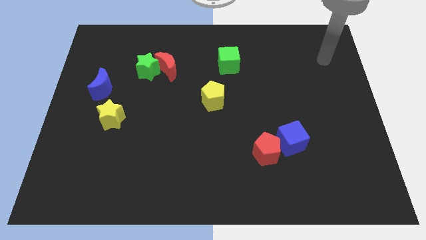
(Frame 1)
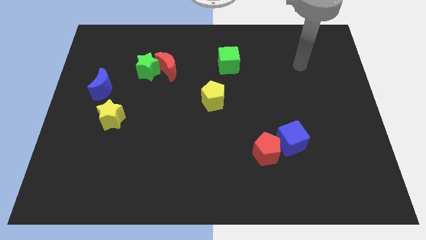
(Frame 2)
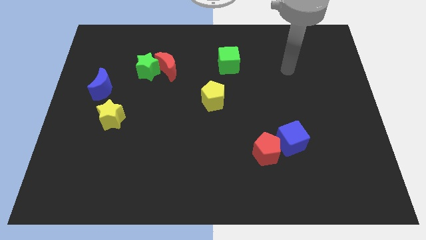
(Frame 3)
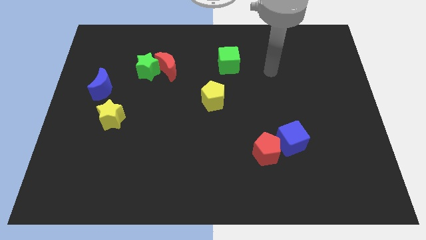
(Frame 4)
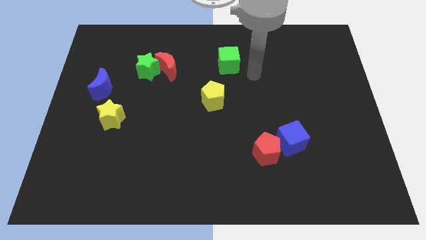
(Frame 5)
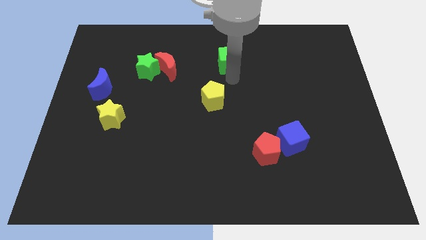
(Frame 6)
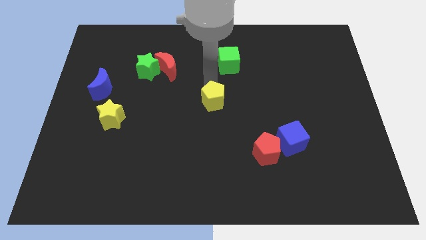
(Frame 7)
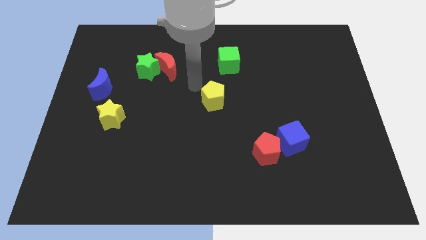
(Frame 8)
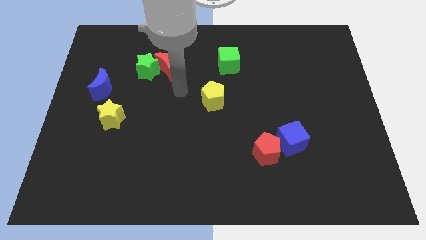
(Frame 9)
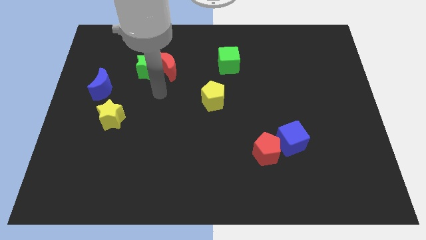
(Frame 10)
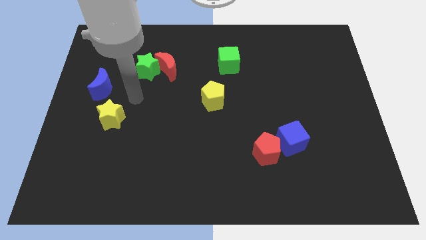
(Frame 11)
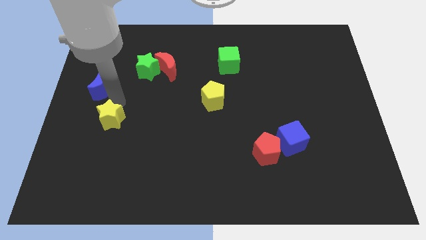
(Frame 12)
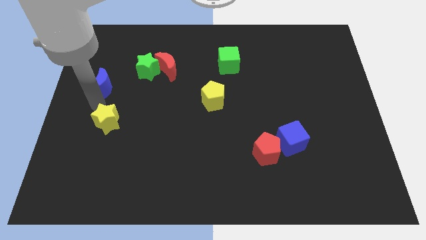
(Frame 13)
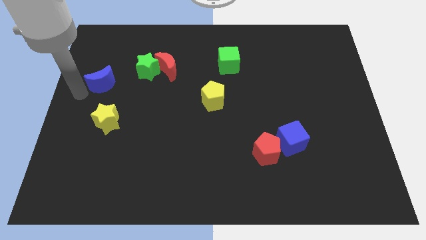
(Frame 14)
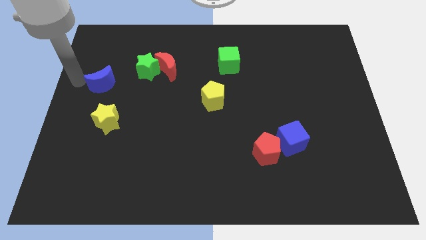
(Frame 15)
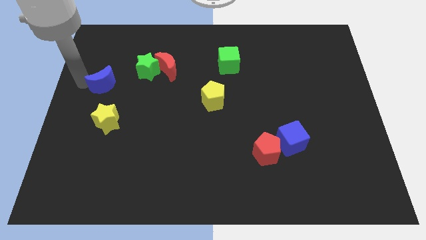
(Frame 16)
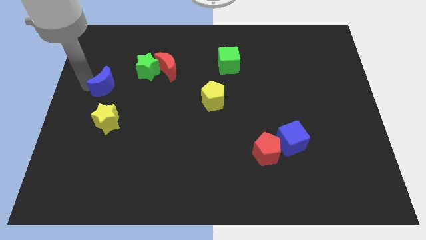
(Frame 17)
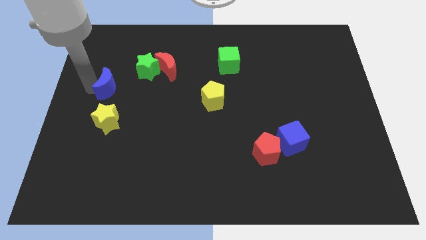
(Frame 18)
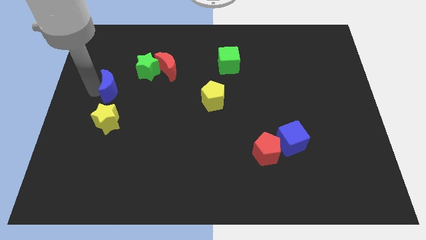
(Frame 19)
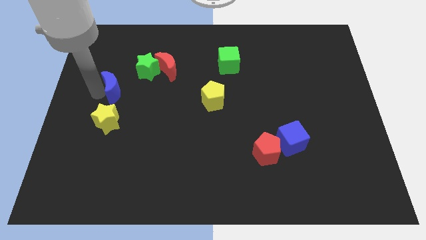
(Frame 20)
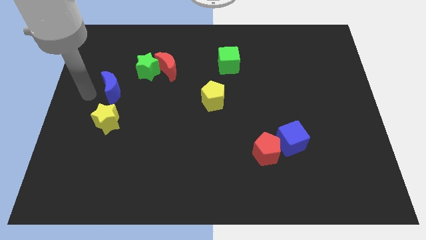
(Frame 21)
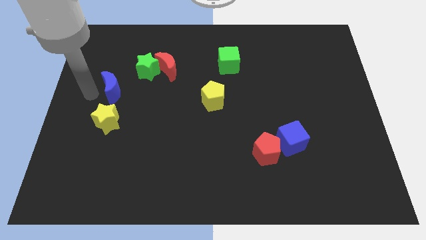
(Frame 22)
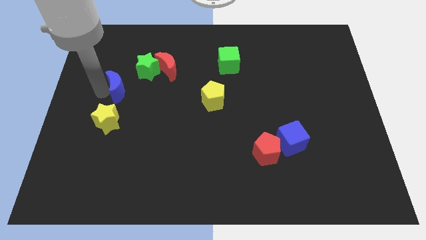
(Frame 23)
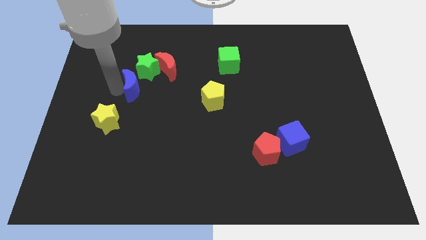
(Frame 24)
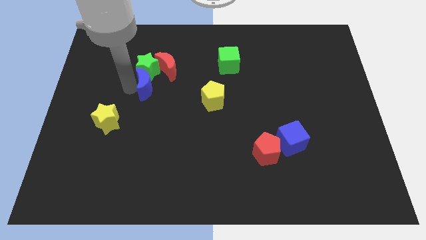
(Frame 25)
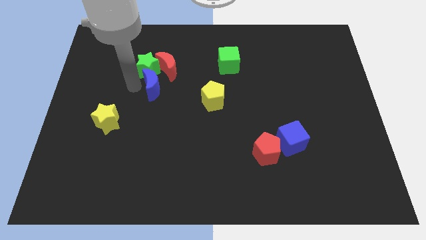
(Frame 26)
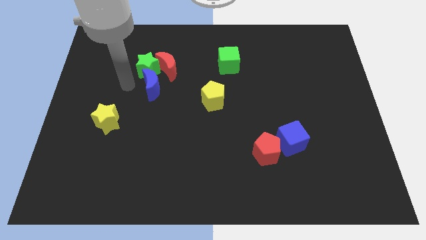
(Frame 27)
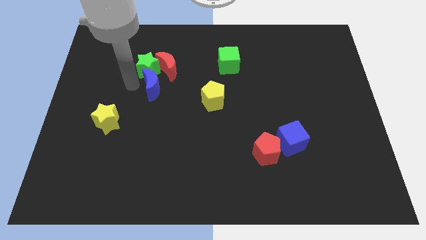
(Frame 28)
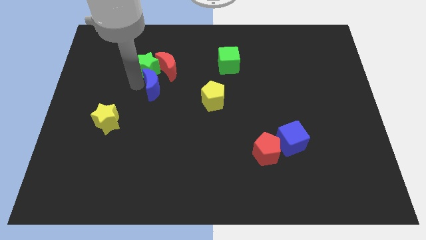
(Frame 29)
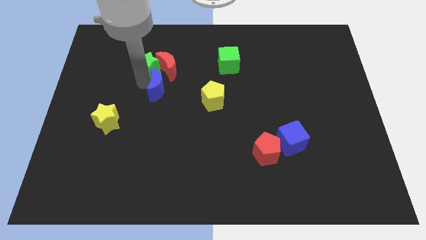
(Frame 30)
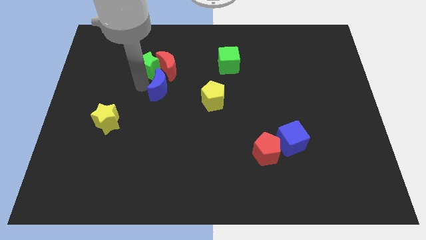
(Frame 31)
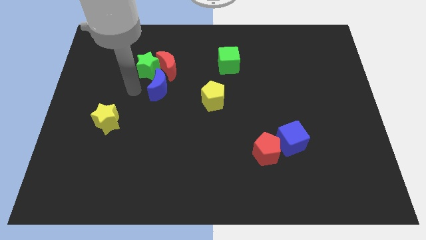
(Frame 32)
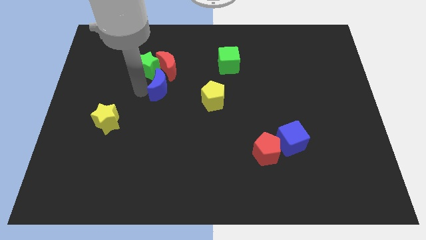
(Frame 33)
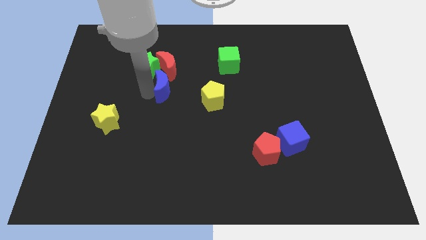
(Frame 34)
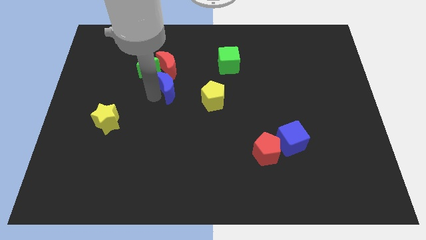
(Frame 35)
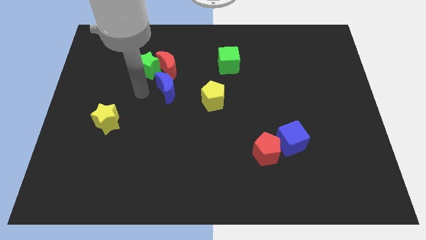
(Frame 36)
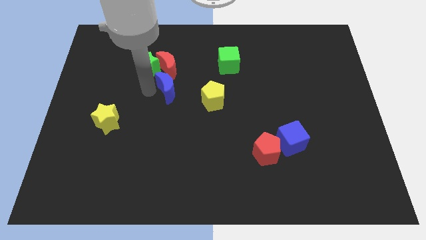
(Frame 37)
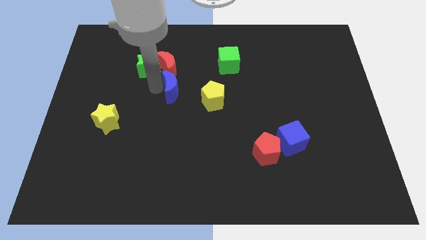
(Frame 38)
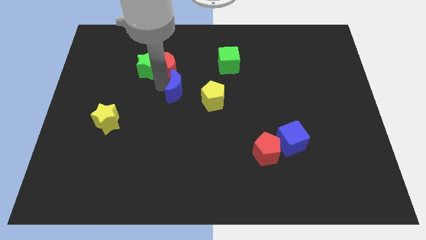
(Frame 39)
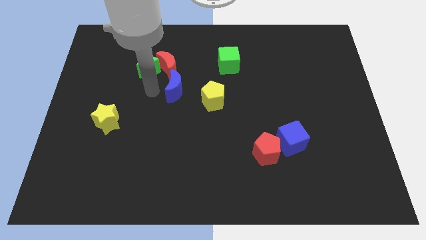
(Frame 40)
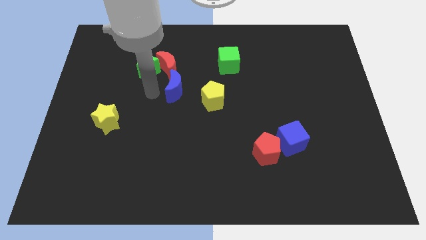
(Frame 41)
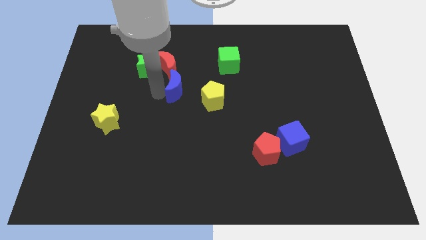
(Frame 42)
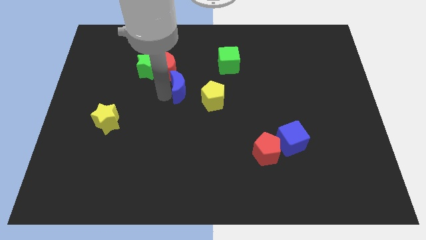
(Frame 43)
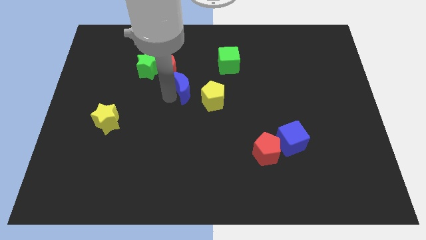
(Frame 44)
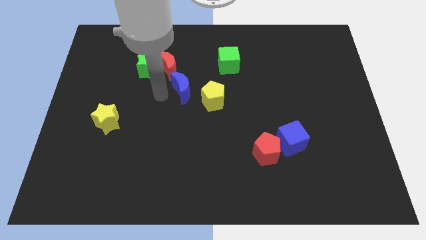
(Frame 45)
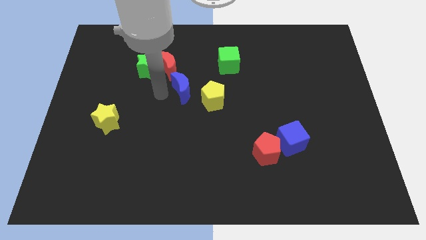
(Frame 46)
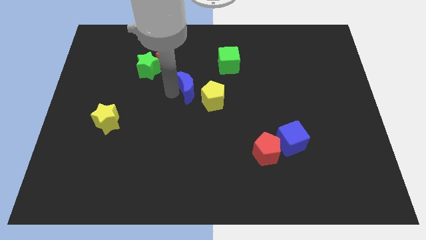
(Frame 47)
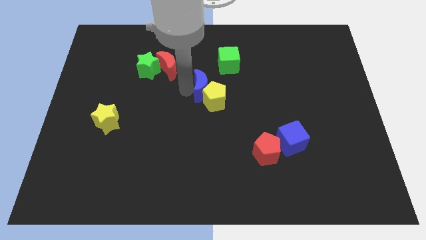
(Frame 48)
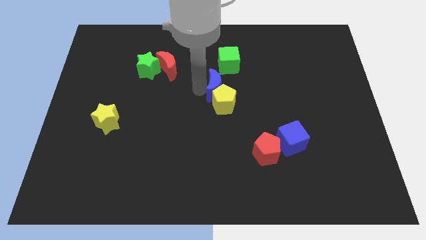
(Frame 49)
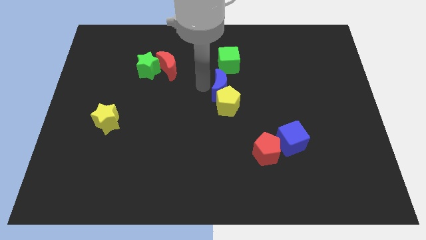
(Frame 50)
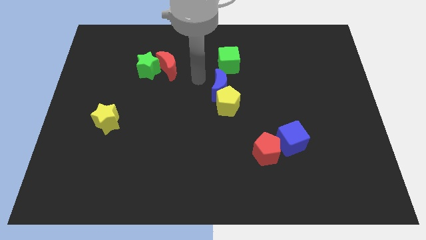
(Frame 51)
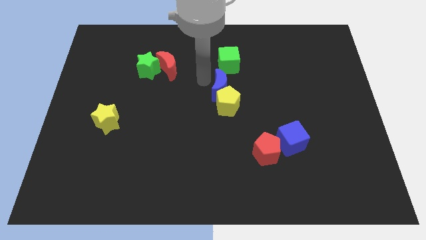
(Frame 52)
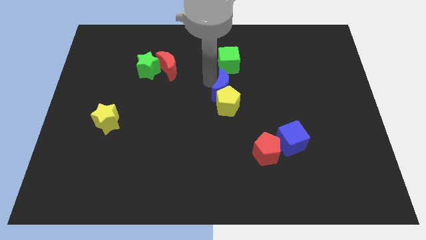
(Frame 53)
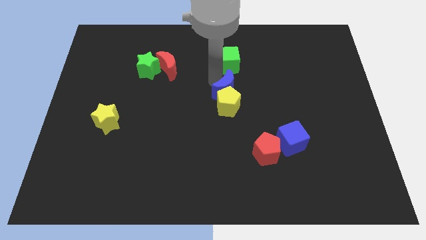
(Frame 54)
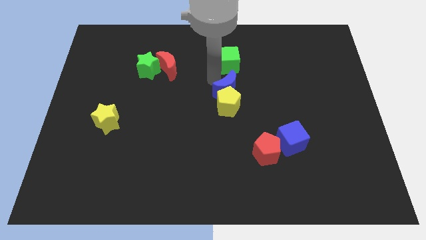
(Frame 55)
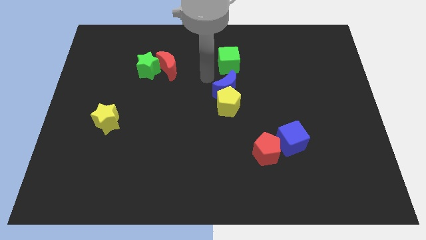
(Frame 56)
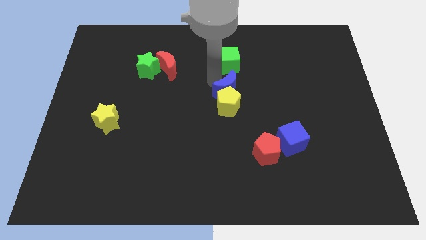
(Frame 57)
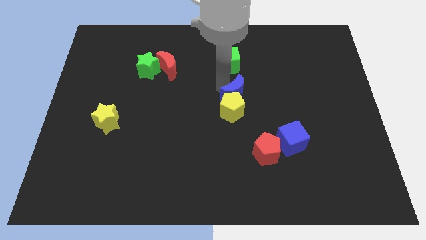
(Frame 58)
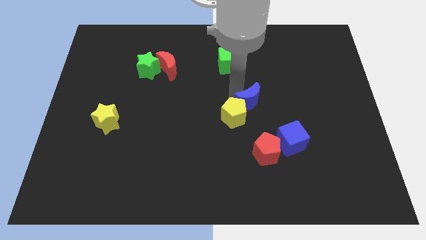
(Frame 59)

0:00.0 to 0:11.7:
put the blue moon above the red pentagon

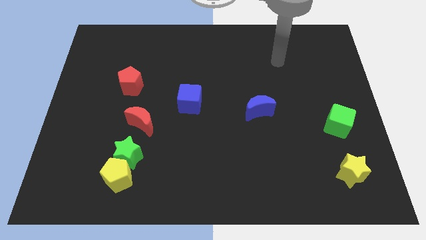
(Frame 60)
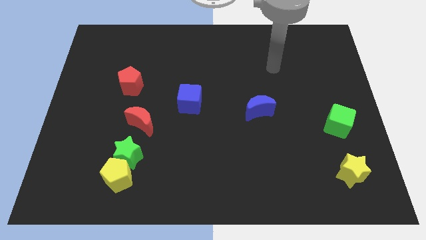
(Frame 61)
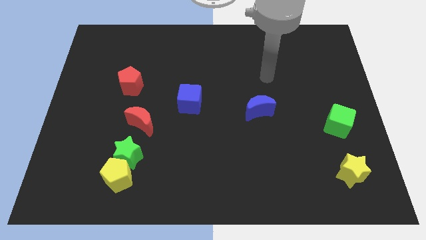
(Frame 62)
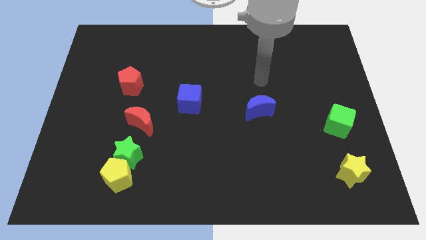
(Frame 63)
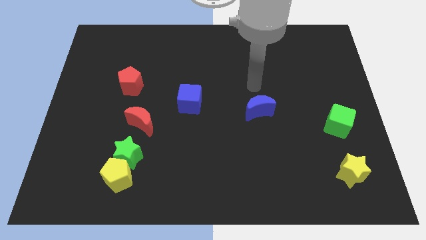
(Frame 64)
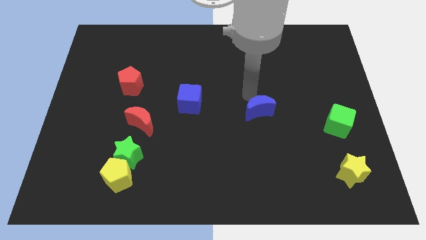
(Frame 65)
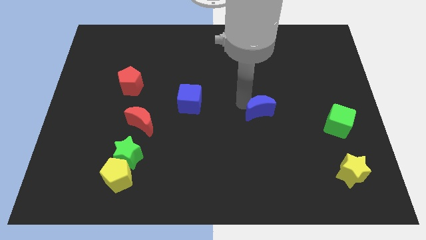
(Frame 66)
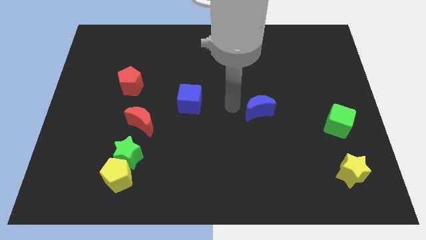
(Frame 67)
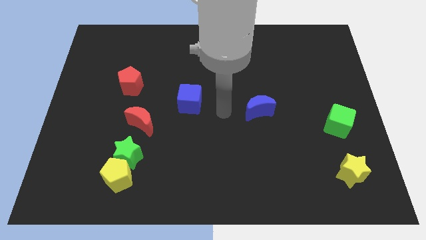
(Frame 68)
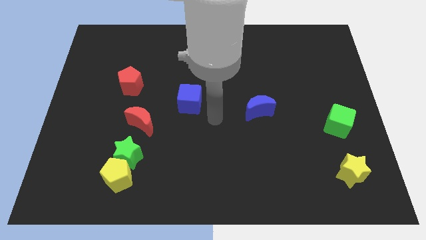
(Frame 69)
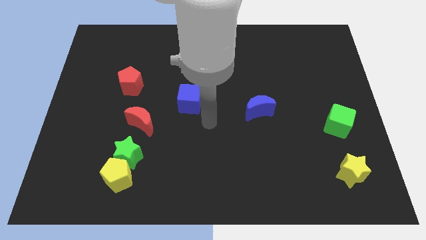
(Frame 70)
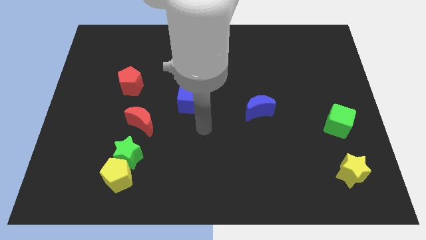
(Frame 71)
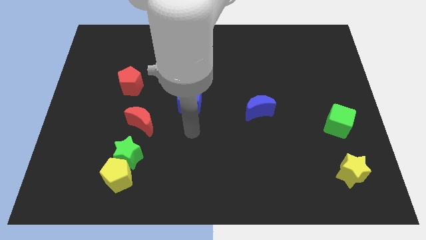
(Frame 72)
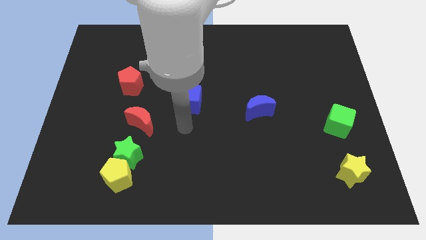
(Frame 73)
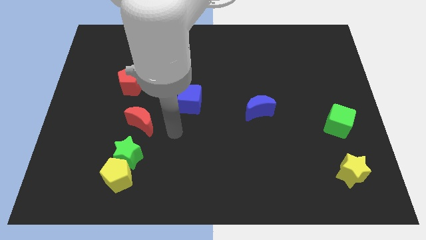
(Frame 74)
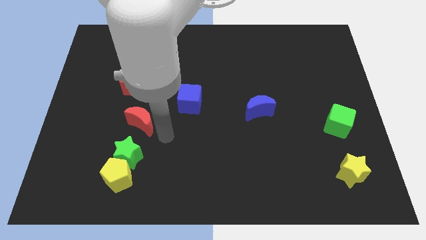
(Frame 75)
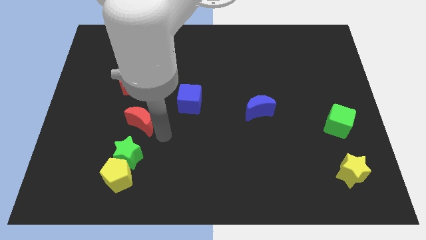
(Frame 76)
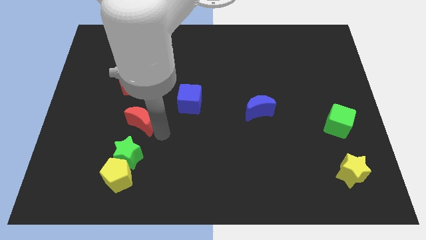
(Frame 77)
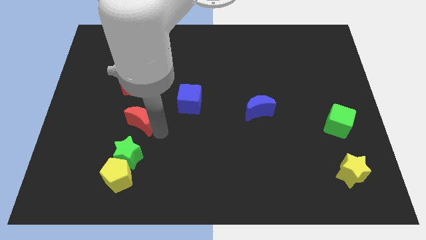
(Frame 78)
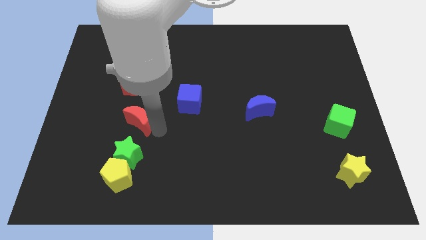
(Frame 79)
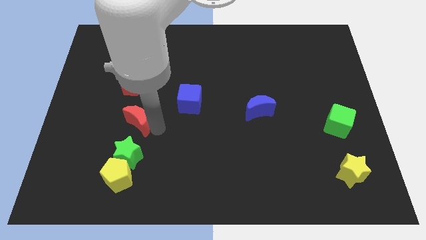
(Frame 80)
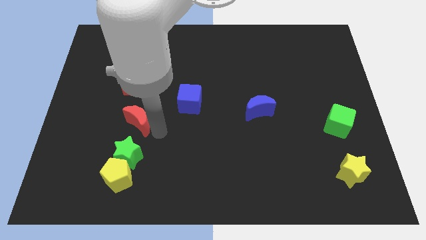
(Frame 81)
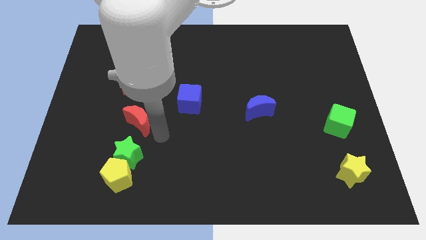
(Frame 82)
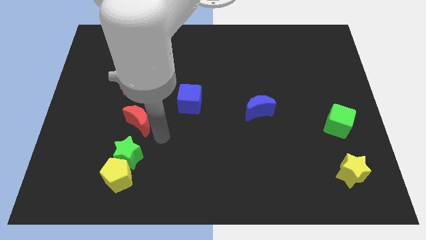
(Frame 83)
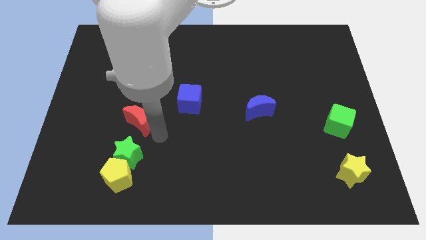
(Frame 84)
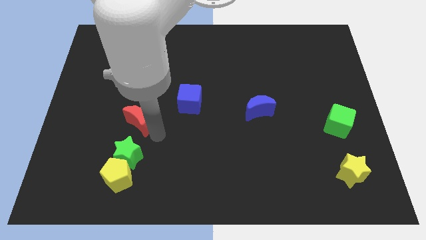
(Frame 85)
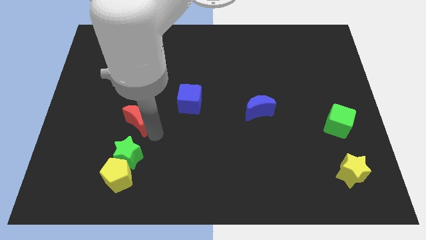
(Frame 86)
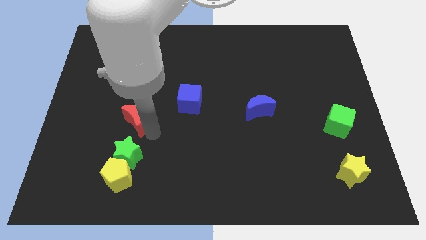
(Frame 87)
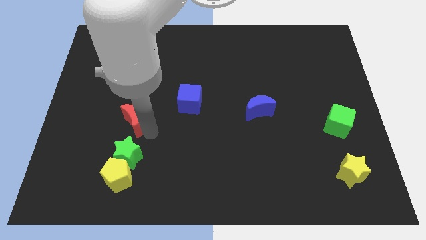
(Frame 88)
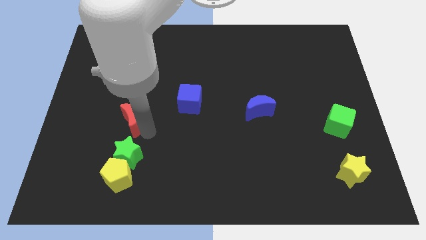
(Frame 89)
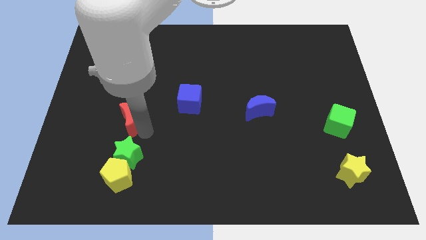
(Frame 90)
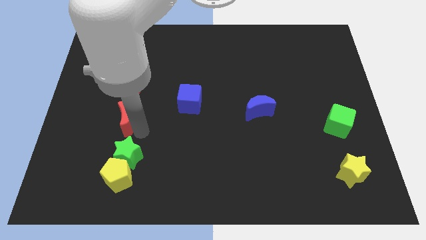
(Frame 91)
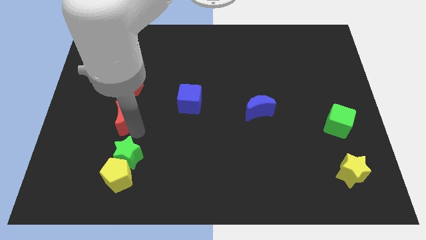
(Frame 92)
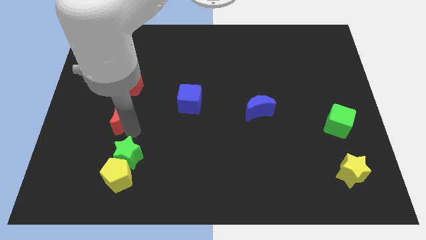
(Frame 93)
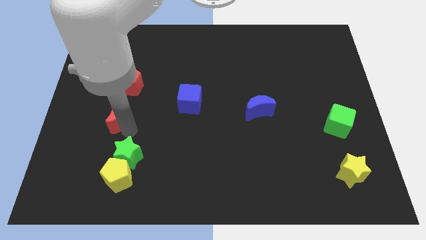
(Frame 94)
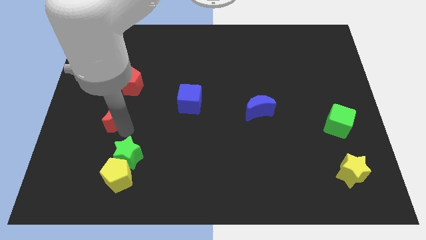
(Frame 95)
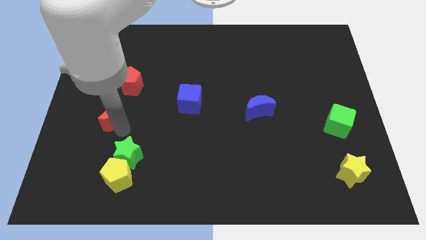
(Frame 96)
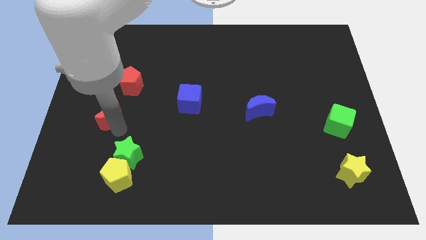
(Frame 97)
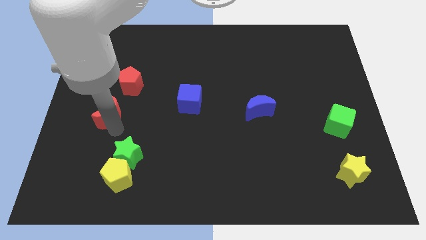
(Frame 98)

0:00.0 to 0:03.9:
slide the red moon diagonally down and to the left of the red pentagon
